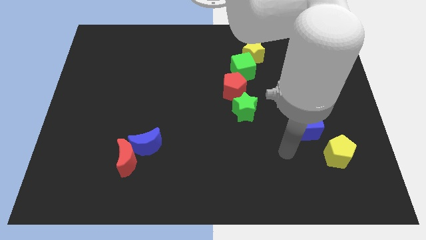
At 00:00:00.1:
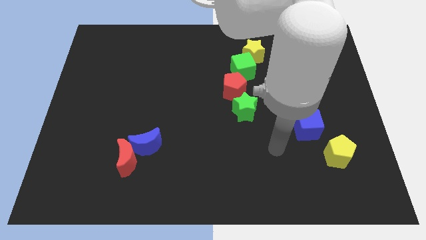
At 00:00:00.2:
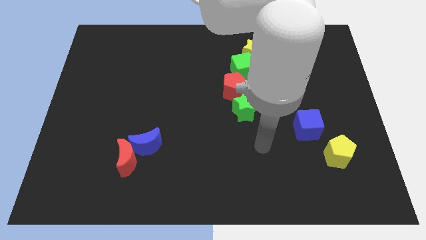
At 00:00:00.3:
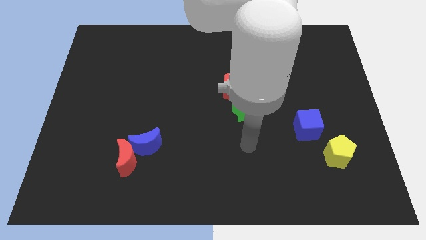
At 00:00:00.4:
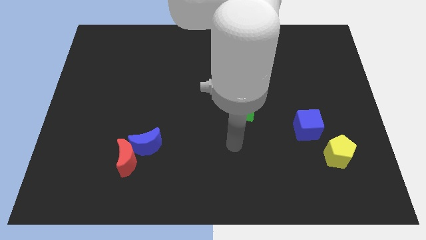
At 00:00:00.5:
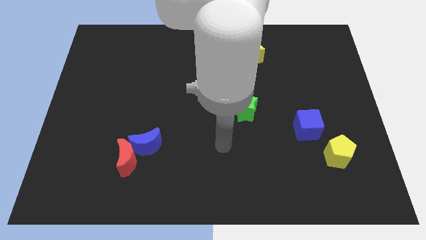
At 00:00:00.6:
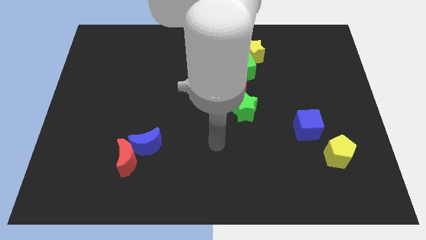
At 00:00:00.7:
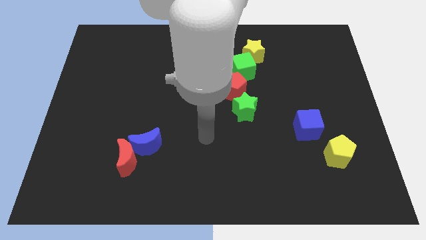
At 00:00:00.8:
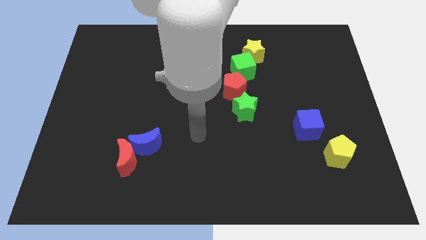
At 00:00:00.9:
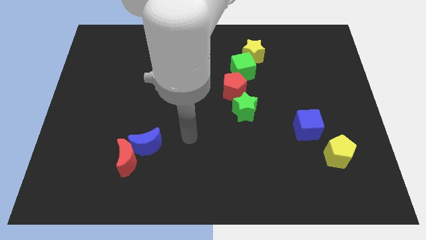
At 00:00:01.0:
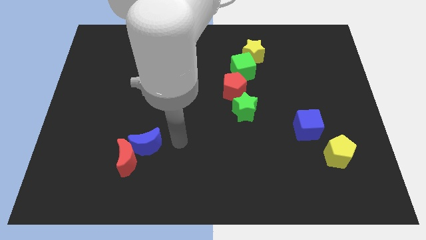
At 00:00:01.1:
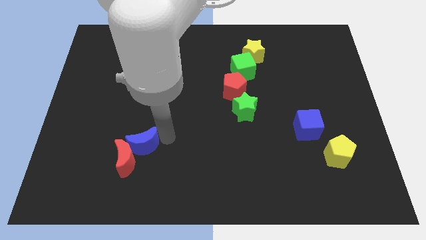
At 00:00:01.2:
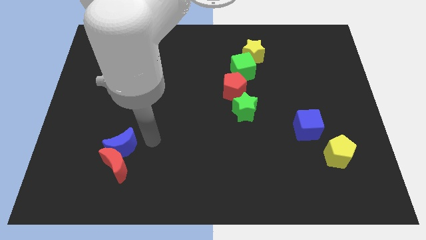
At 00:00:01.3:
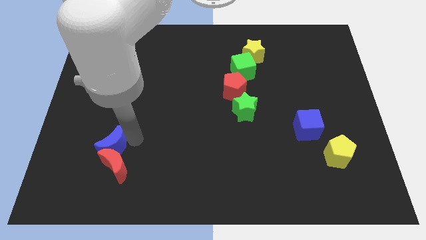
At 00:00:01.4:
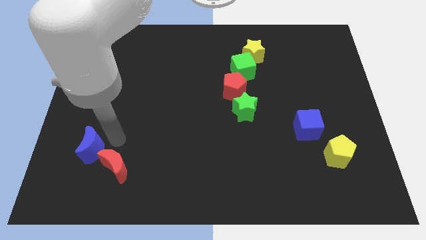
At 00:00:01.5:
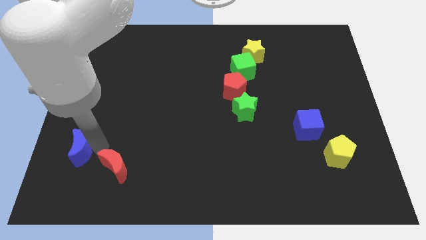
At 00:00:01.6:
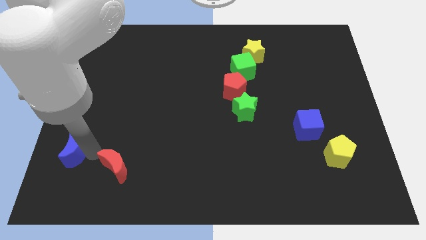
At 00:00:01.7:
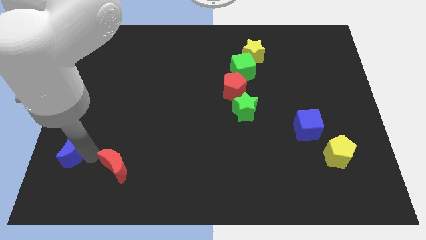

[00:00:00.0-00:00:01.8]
pull the red moon apart from the blue moon

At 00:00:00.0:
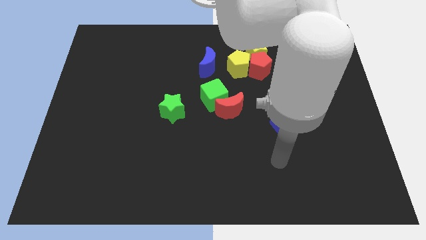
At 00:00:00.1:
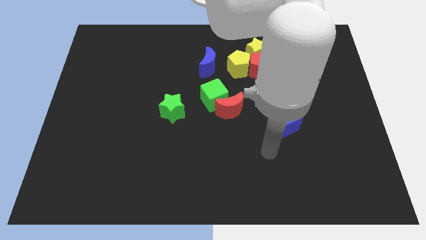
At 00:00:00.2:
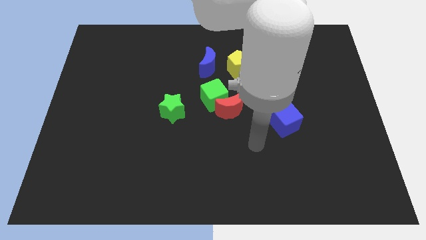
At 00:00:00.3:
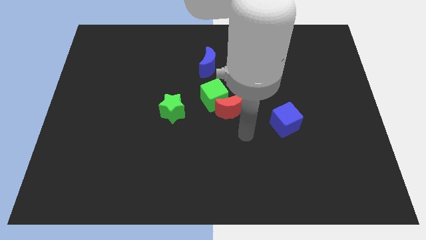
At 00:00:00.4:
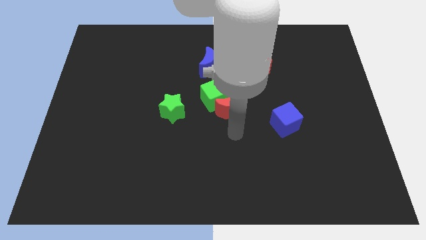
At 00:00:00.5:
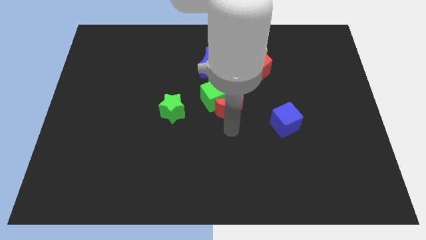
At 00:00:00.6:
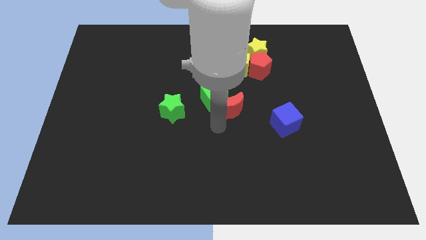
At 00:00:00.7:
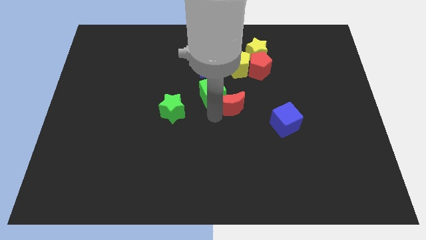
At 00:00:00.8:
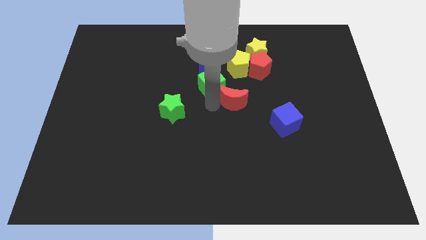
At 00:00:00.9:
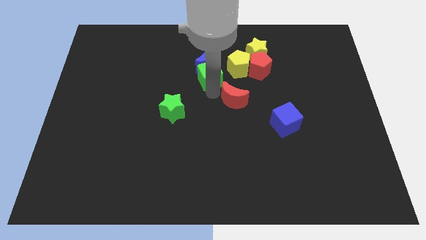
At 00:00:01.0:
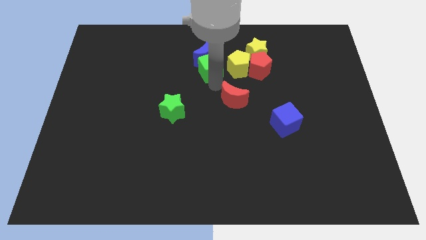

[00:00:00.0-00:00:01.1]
pull the red moon apart from the green cube

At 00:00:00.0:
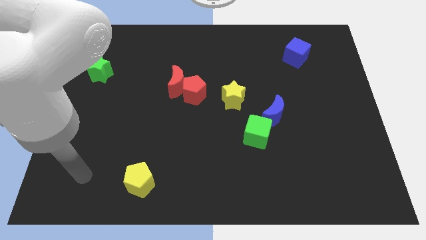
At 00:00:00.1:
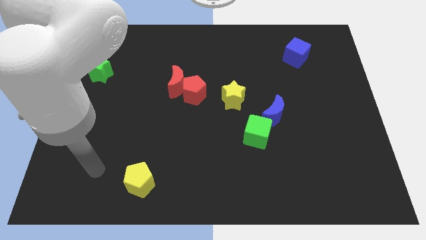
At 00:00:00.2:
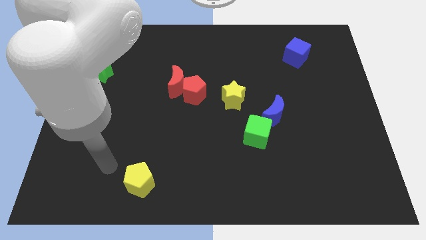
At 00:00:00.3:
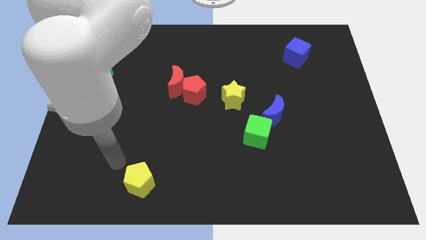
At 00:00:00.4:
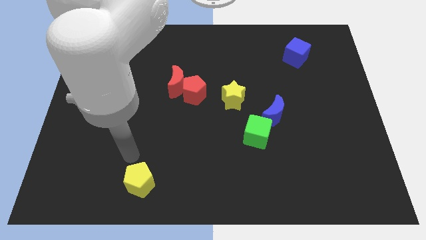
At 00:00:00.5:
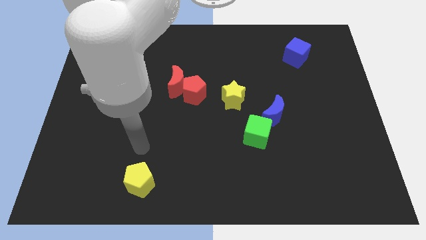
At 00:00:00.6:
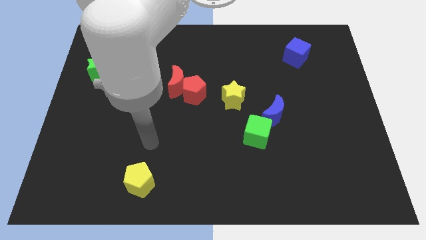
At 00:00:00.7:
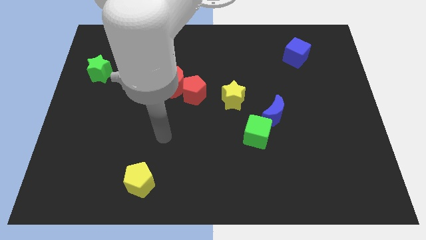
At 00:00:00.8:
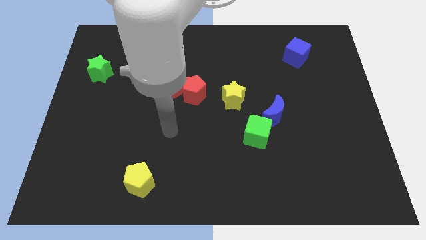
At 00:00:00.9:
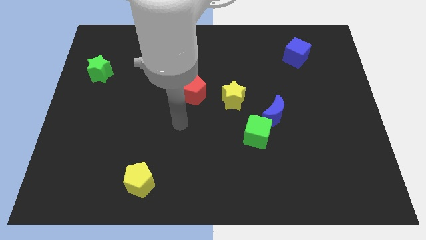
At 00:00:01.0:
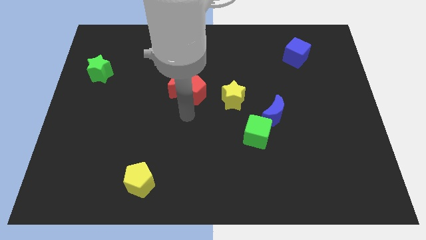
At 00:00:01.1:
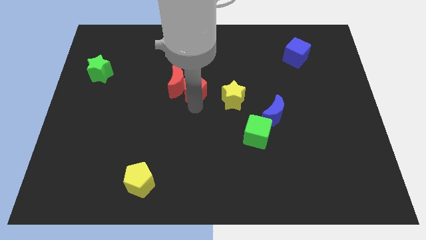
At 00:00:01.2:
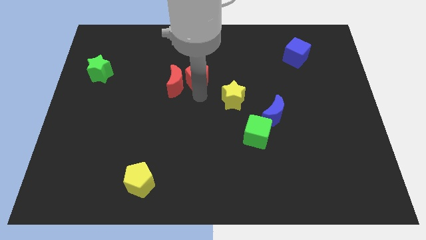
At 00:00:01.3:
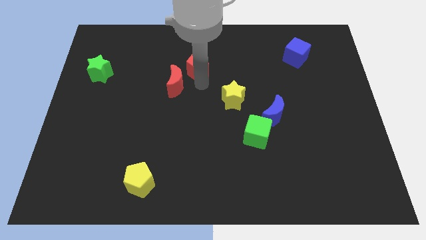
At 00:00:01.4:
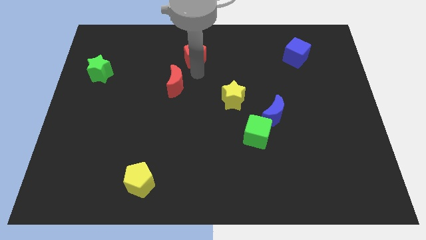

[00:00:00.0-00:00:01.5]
pull the red moon apart from the red pentagon

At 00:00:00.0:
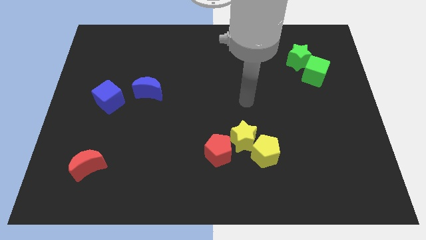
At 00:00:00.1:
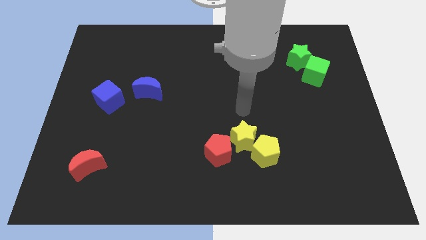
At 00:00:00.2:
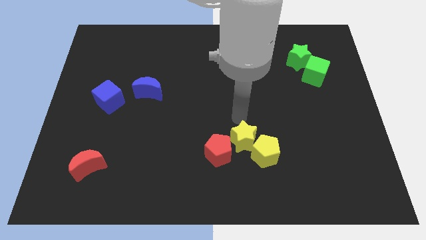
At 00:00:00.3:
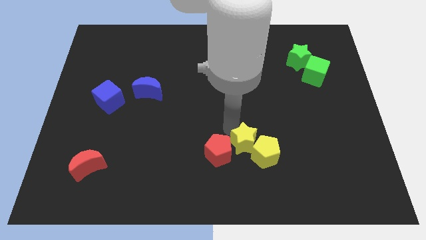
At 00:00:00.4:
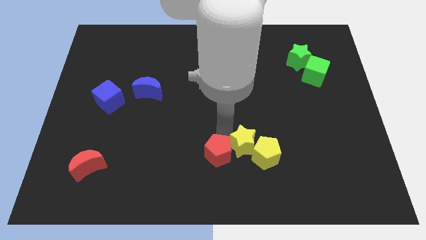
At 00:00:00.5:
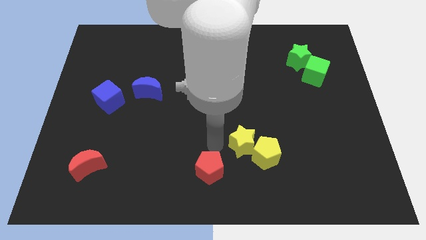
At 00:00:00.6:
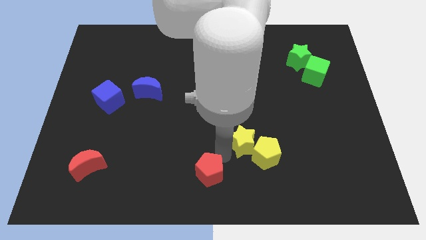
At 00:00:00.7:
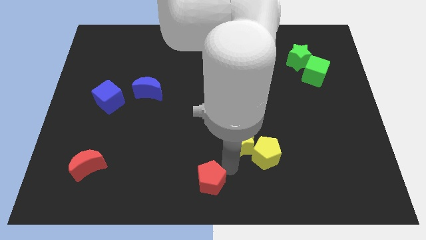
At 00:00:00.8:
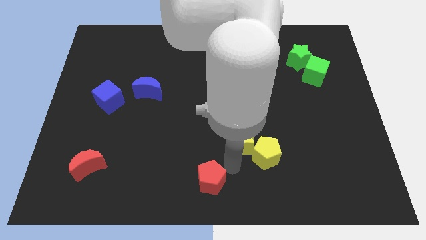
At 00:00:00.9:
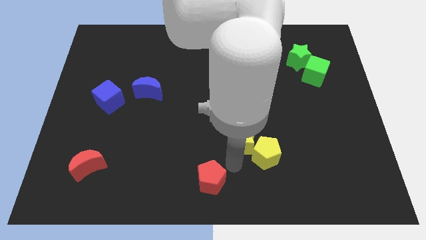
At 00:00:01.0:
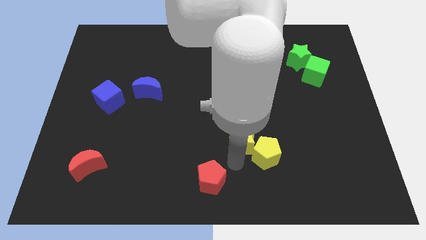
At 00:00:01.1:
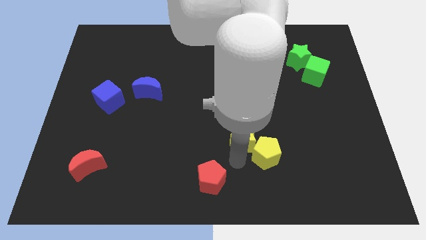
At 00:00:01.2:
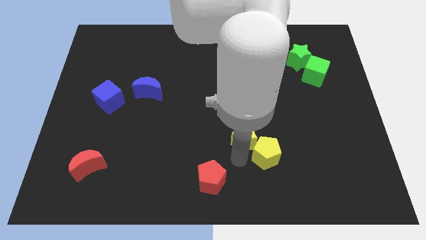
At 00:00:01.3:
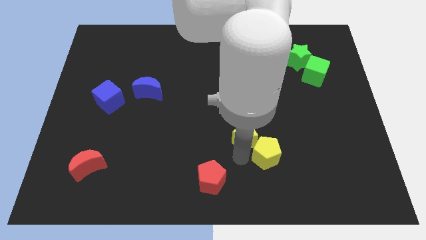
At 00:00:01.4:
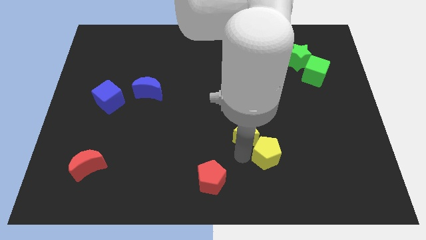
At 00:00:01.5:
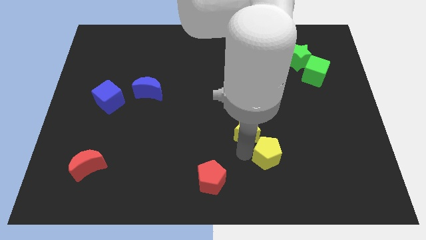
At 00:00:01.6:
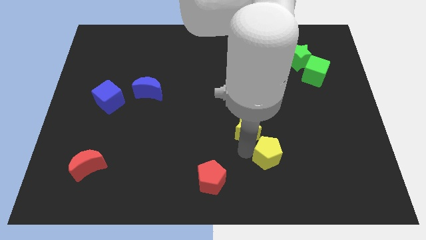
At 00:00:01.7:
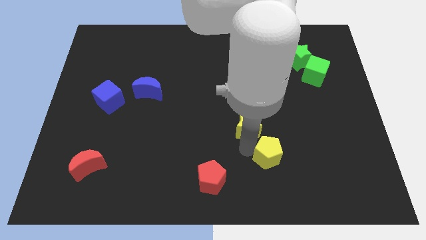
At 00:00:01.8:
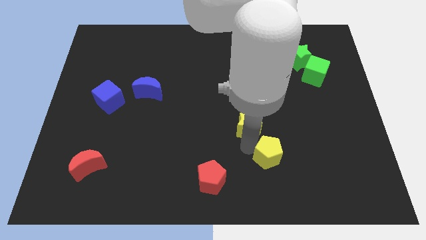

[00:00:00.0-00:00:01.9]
pull the yellow star apart from the yellow pentagon and red pentagon

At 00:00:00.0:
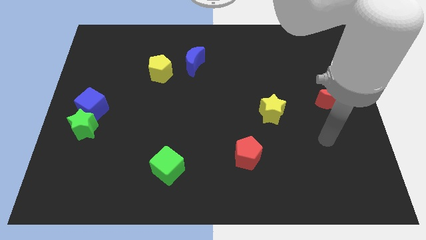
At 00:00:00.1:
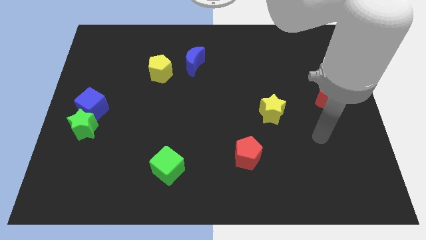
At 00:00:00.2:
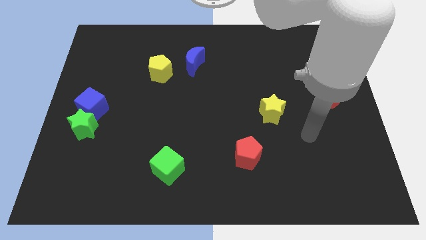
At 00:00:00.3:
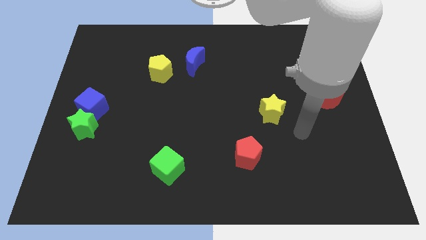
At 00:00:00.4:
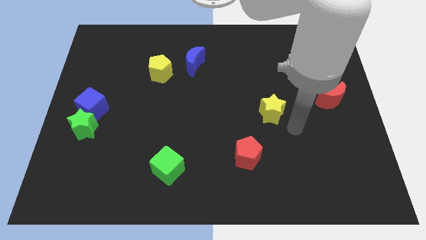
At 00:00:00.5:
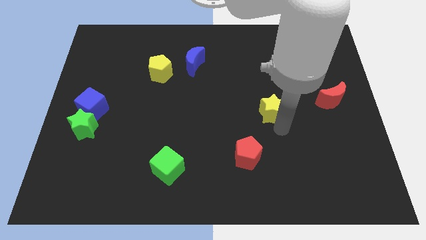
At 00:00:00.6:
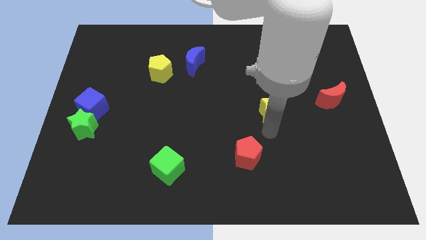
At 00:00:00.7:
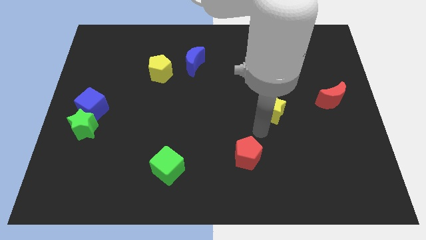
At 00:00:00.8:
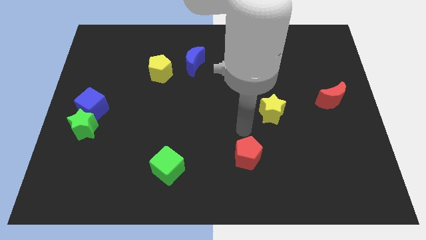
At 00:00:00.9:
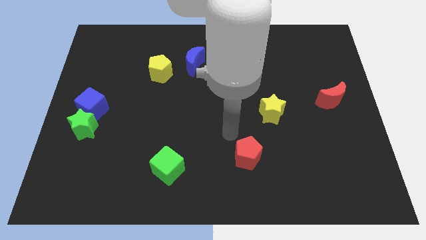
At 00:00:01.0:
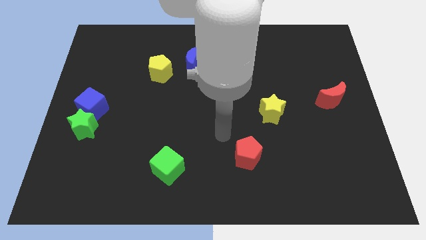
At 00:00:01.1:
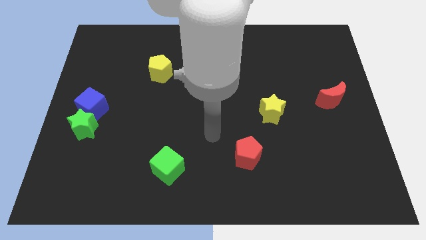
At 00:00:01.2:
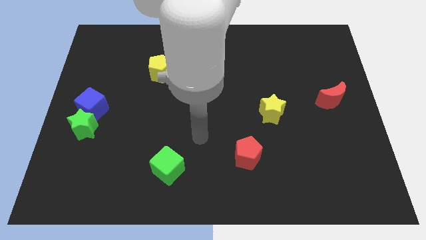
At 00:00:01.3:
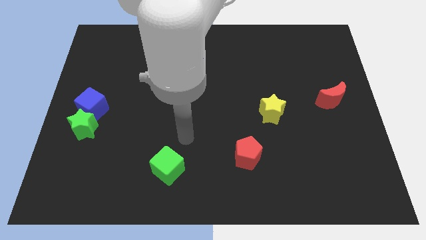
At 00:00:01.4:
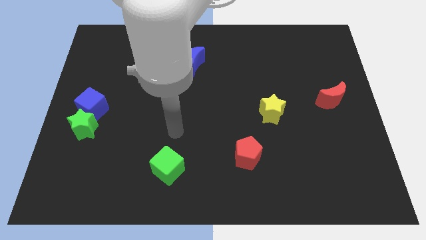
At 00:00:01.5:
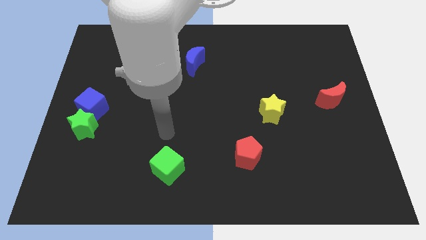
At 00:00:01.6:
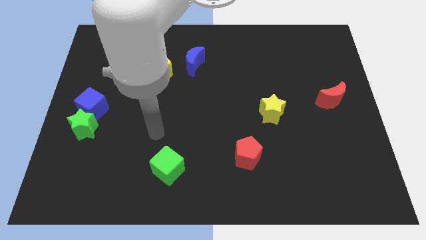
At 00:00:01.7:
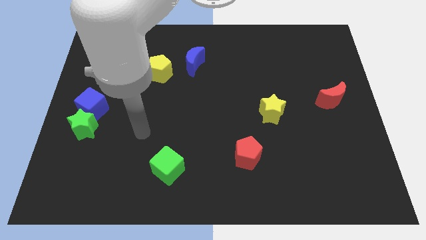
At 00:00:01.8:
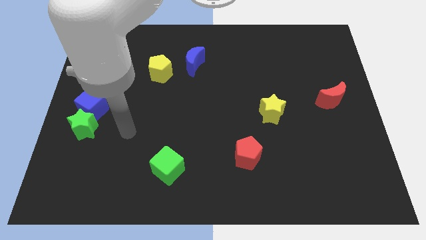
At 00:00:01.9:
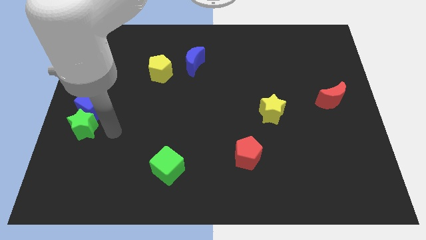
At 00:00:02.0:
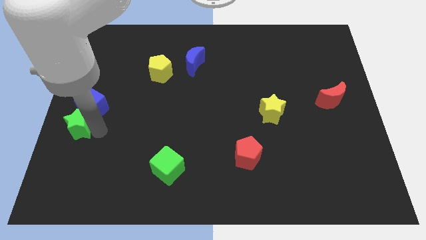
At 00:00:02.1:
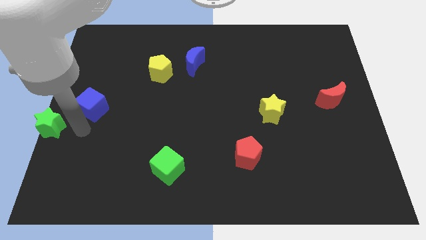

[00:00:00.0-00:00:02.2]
move the blue cube away from the green star

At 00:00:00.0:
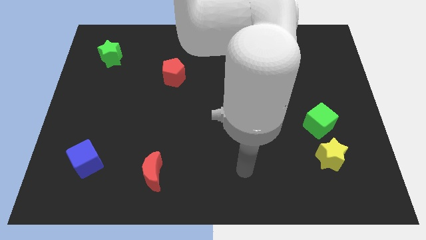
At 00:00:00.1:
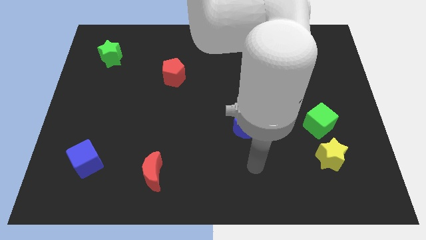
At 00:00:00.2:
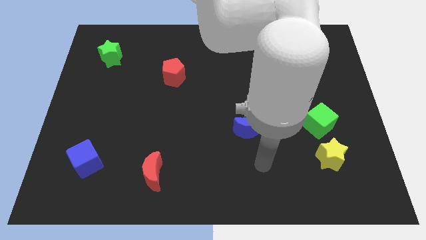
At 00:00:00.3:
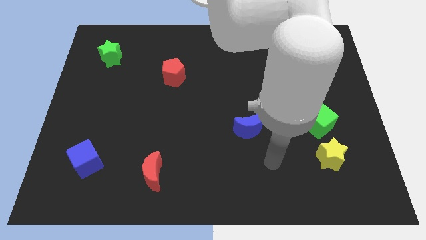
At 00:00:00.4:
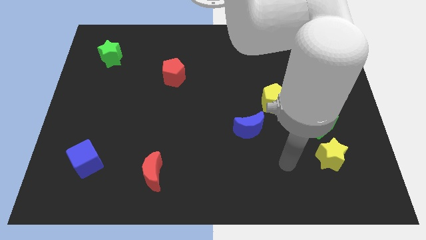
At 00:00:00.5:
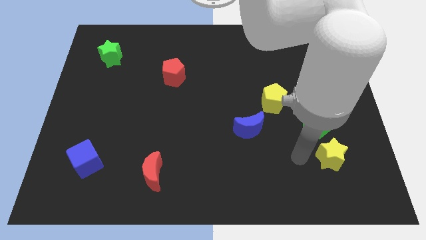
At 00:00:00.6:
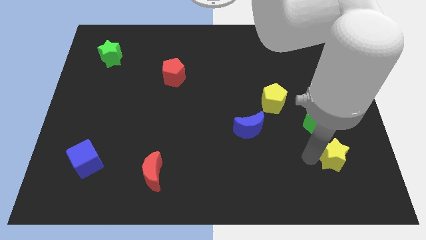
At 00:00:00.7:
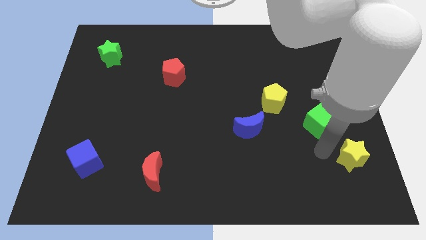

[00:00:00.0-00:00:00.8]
pull the green cube apart from the yellow star
